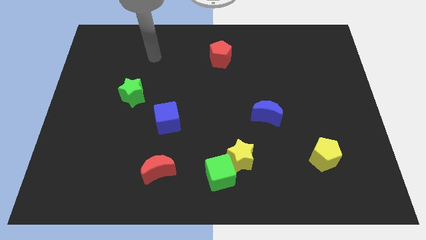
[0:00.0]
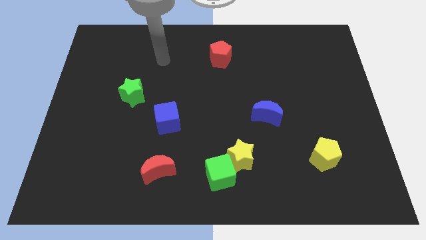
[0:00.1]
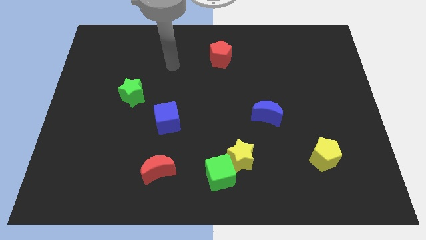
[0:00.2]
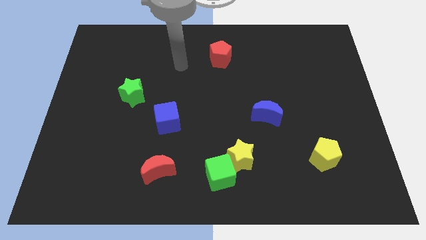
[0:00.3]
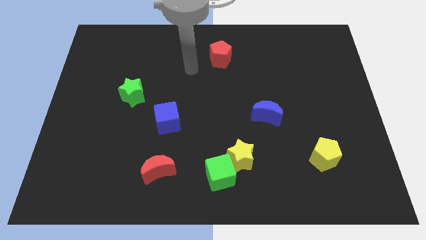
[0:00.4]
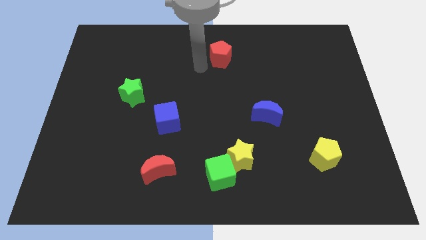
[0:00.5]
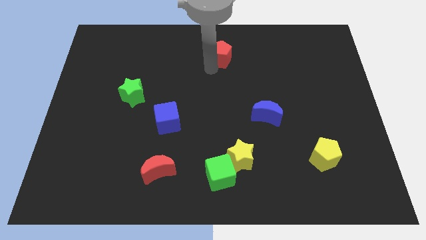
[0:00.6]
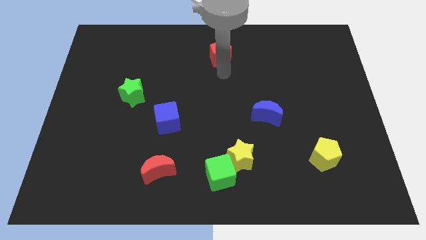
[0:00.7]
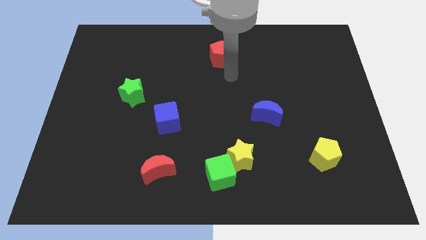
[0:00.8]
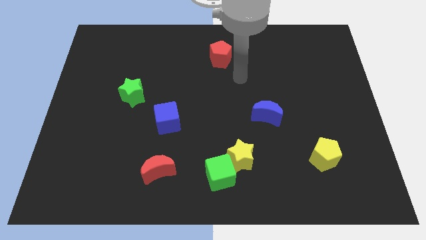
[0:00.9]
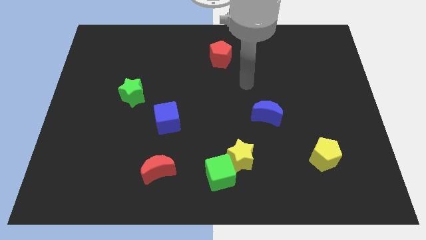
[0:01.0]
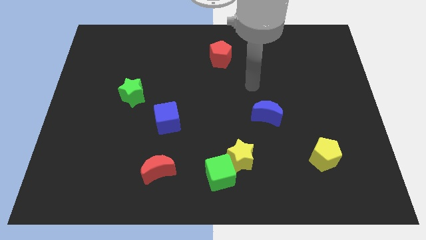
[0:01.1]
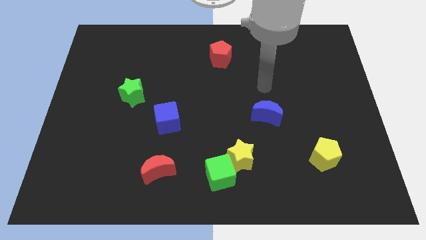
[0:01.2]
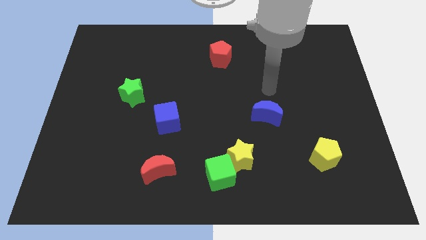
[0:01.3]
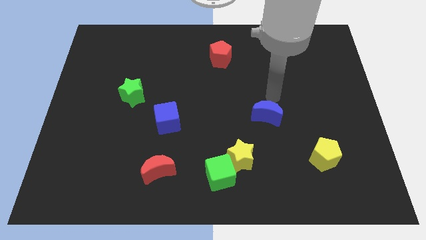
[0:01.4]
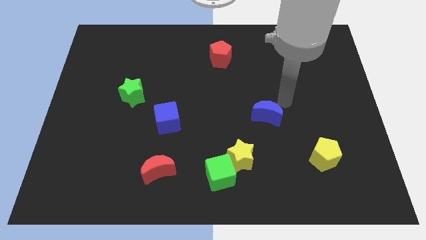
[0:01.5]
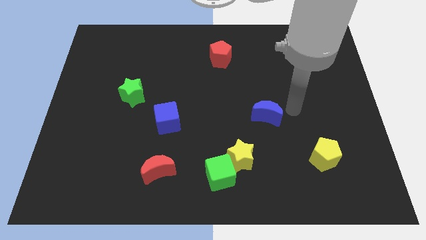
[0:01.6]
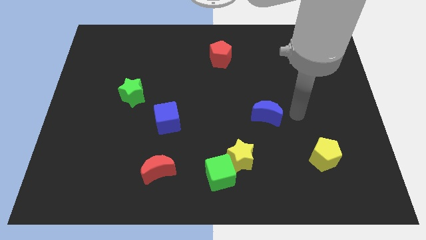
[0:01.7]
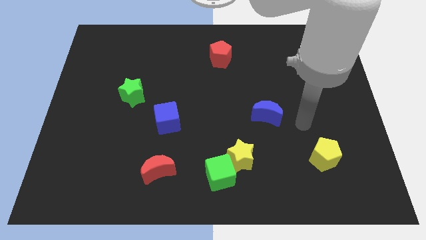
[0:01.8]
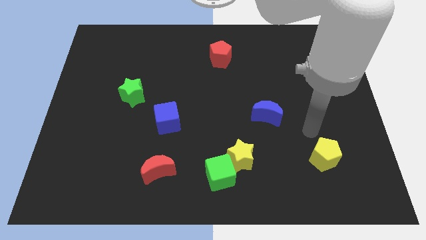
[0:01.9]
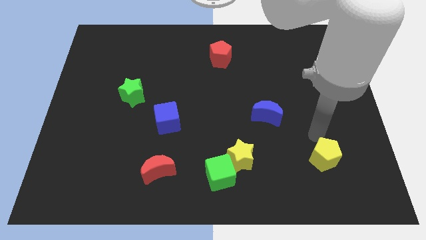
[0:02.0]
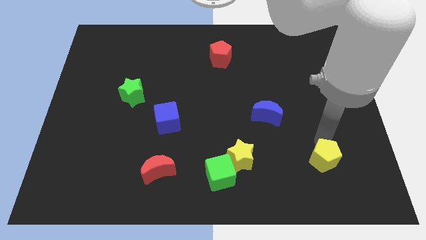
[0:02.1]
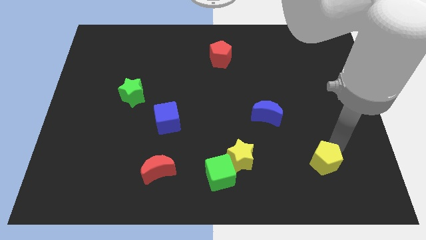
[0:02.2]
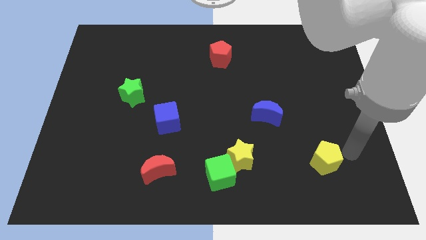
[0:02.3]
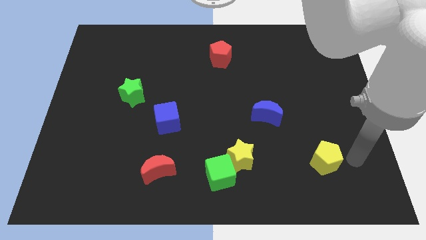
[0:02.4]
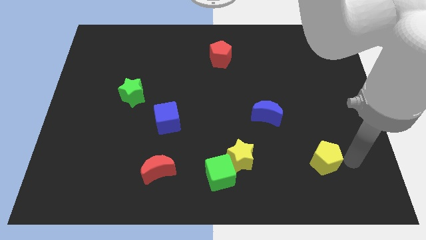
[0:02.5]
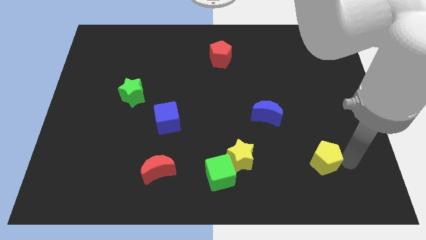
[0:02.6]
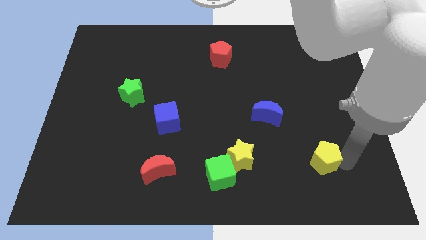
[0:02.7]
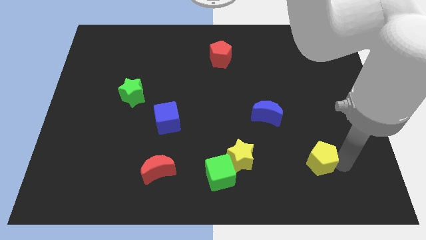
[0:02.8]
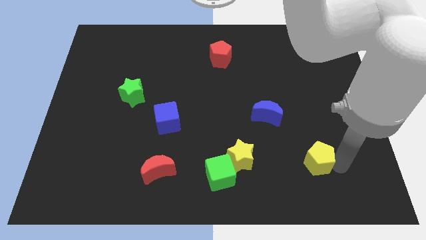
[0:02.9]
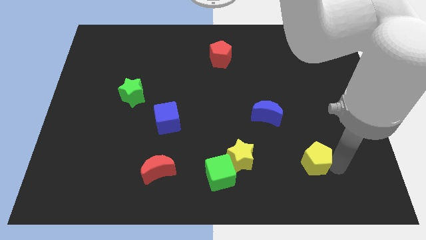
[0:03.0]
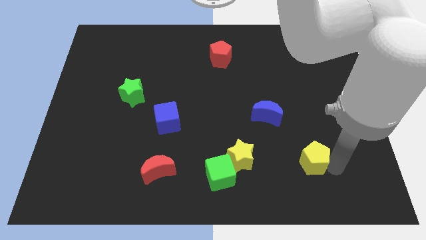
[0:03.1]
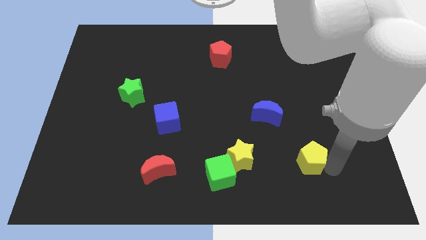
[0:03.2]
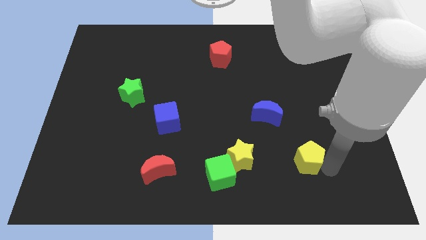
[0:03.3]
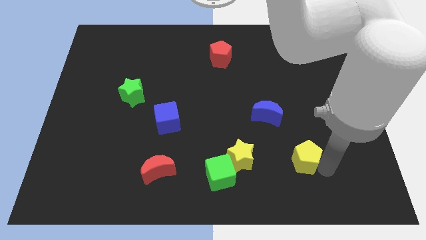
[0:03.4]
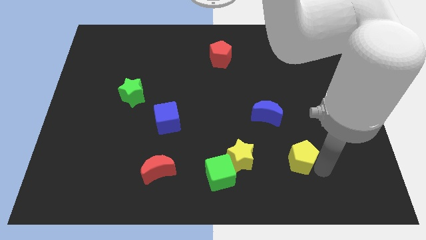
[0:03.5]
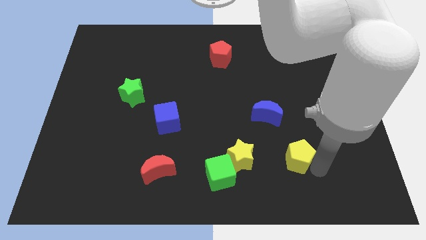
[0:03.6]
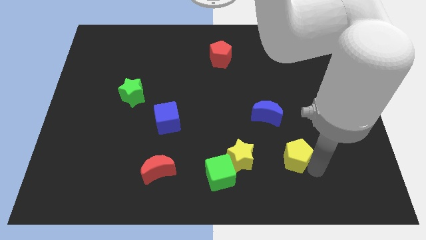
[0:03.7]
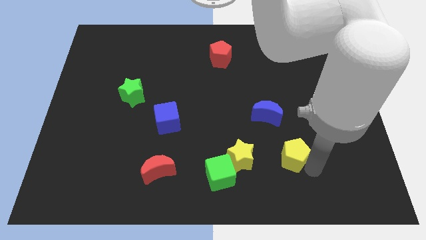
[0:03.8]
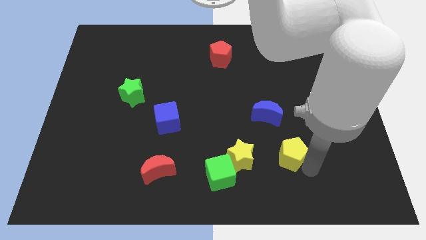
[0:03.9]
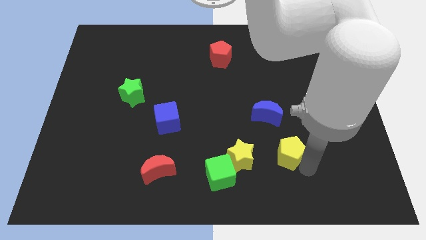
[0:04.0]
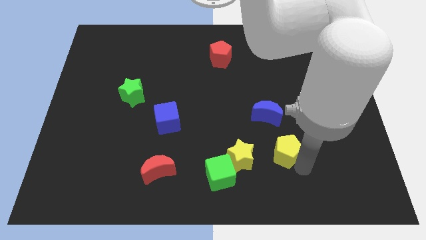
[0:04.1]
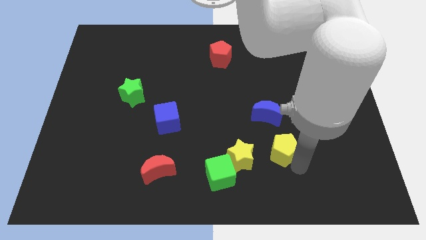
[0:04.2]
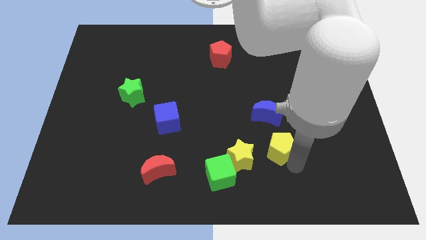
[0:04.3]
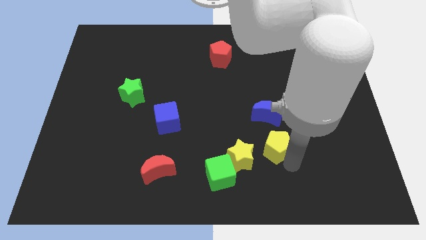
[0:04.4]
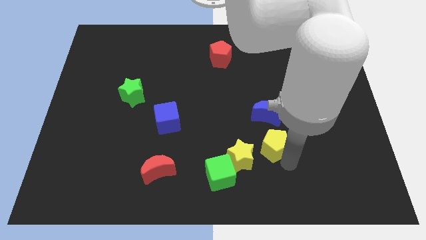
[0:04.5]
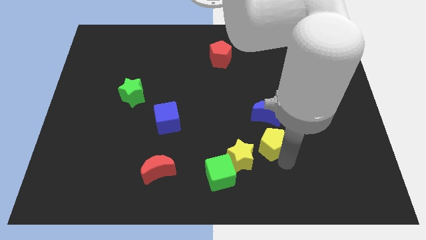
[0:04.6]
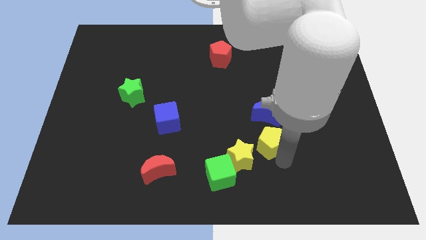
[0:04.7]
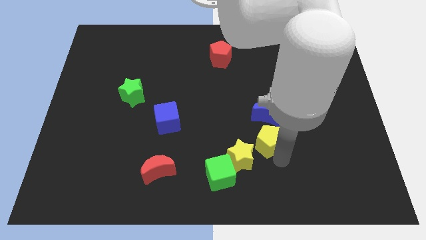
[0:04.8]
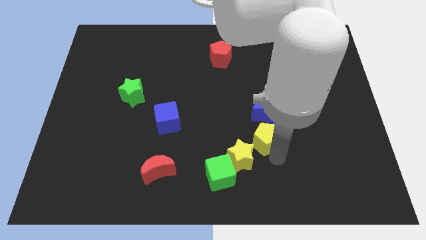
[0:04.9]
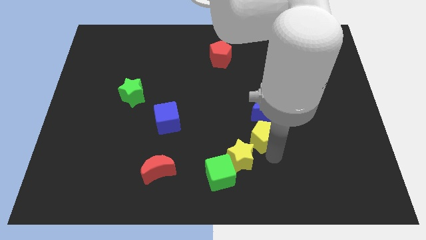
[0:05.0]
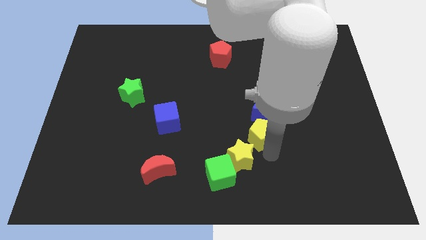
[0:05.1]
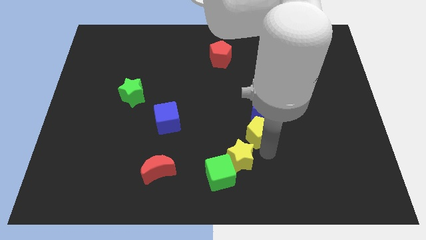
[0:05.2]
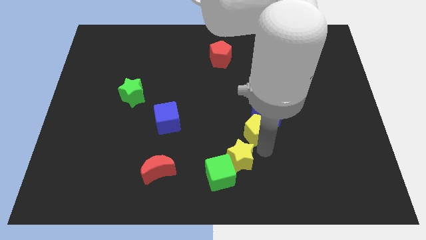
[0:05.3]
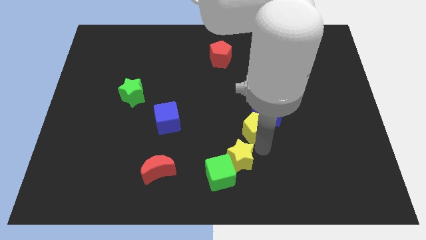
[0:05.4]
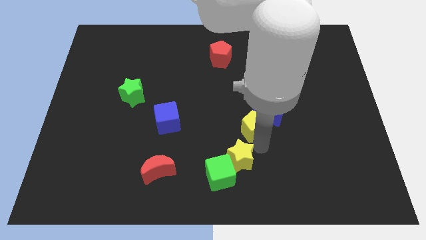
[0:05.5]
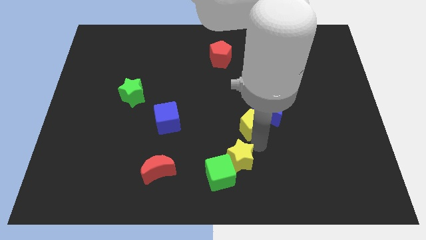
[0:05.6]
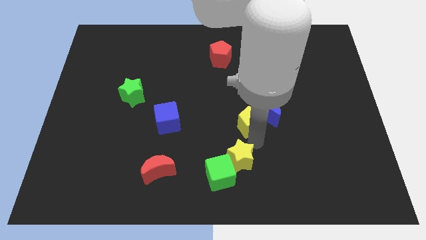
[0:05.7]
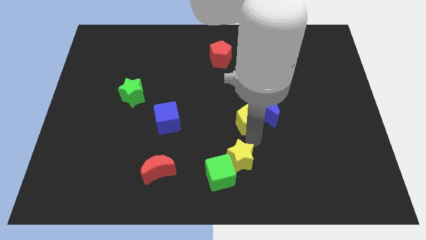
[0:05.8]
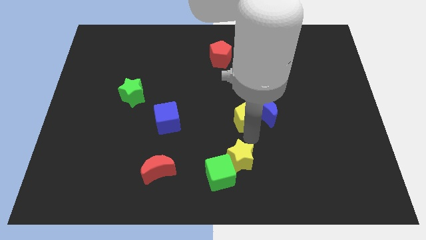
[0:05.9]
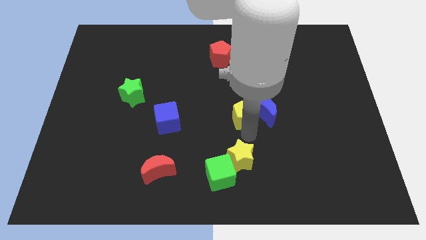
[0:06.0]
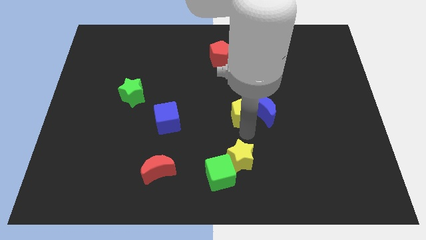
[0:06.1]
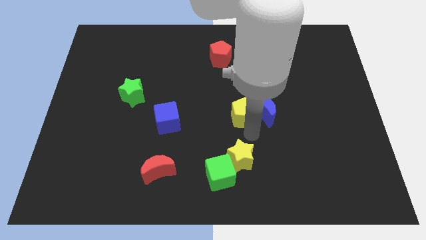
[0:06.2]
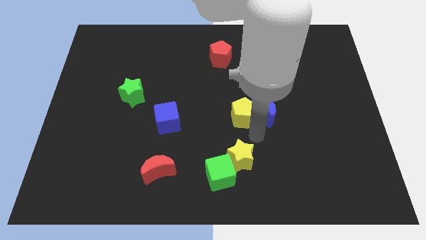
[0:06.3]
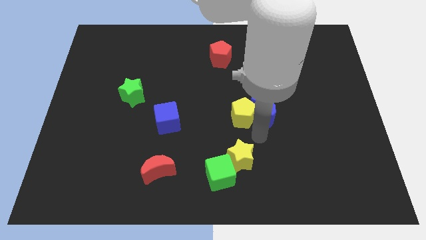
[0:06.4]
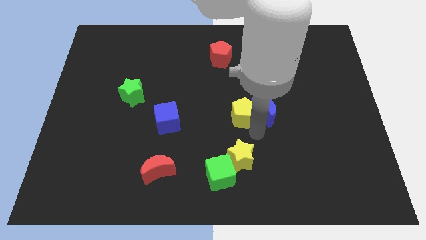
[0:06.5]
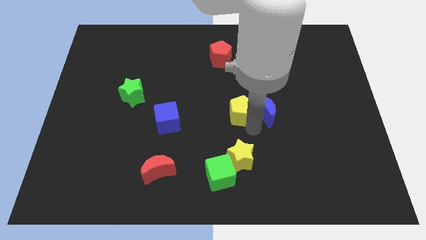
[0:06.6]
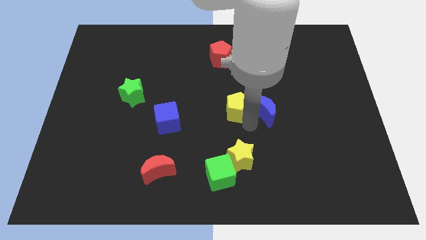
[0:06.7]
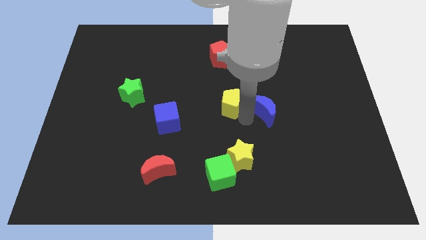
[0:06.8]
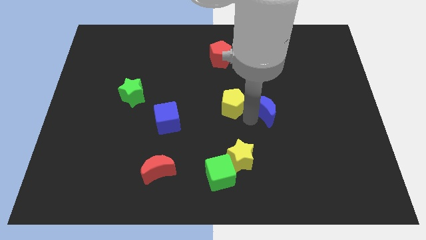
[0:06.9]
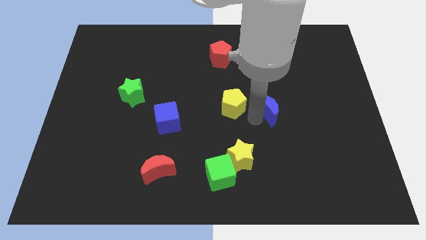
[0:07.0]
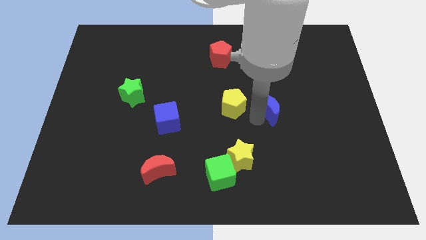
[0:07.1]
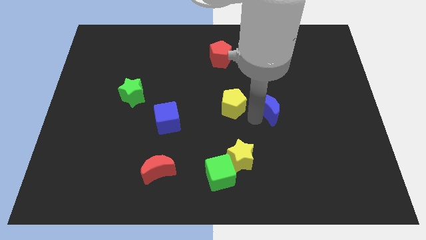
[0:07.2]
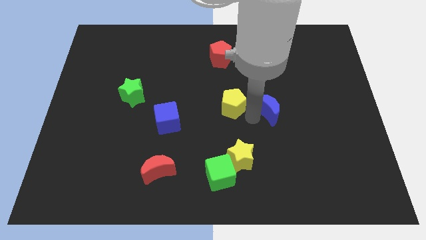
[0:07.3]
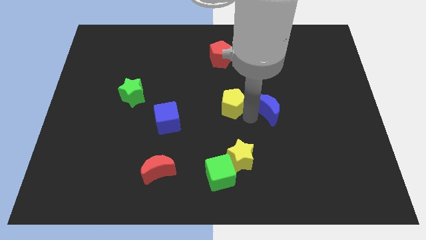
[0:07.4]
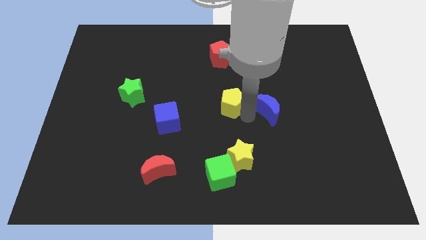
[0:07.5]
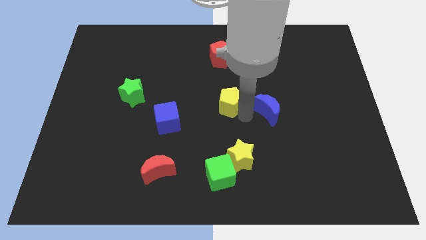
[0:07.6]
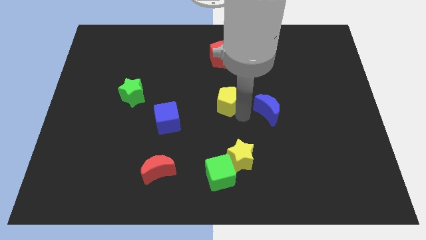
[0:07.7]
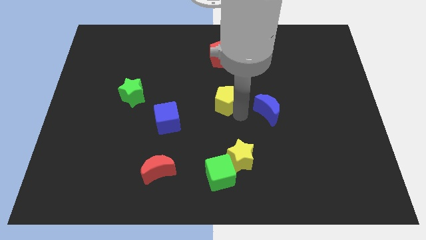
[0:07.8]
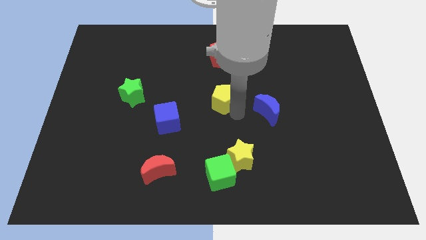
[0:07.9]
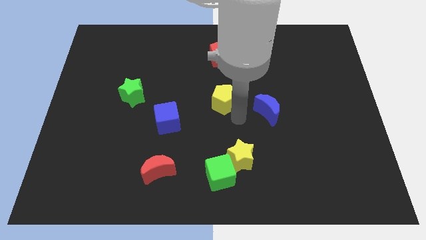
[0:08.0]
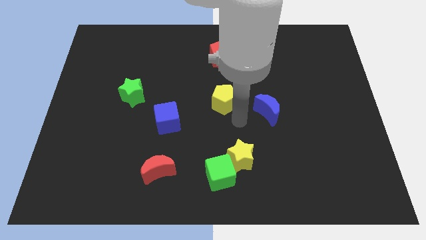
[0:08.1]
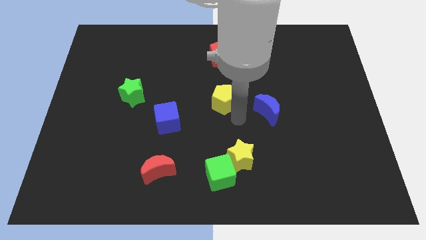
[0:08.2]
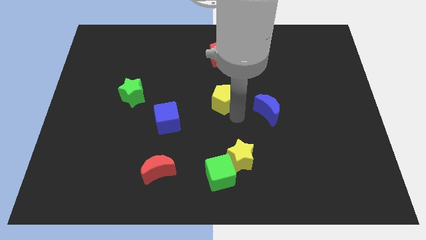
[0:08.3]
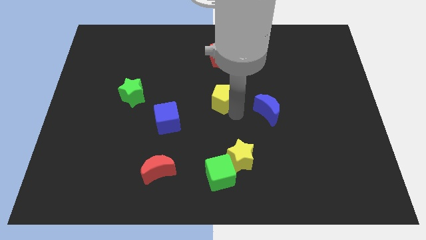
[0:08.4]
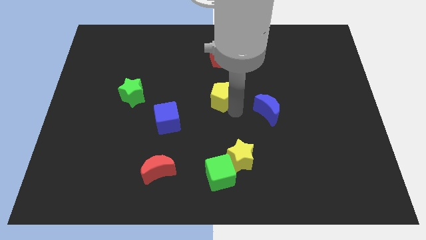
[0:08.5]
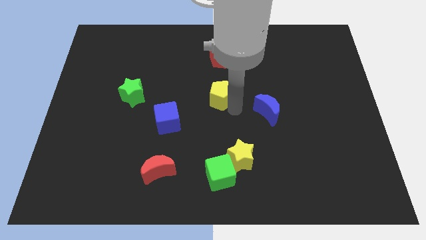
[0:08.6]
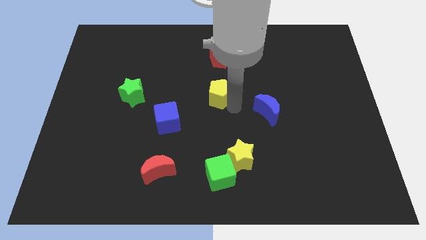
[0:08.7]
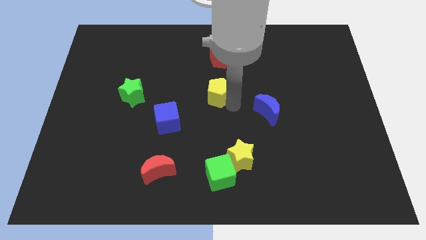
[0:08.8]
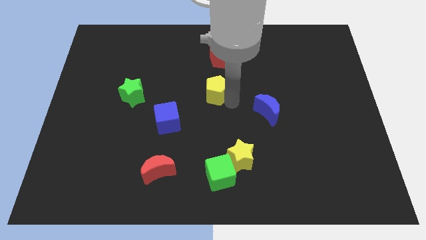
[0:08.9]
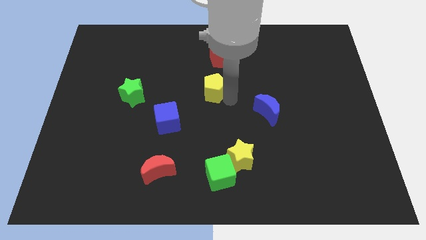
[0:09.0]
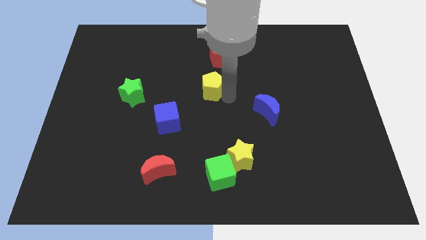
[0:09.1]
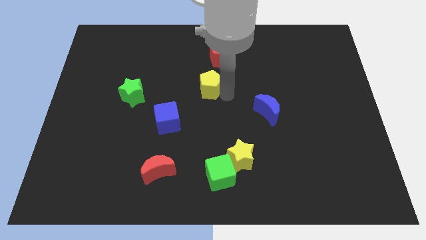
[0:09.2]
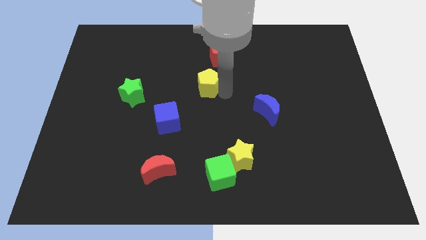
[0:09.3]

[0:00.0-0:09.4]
push the yellow pentagon to the bottom left side of the red pentagon
